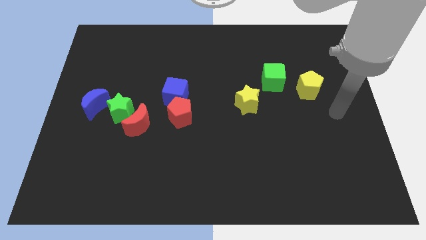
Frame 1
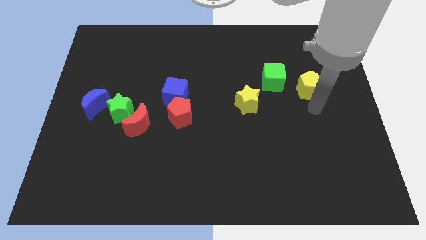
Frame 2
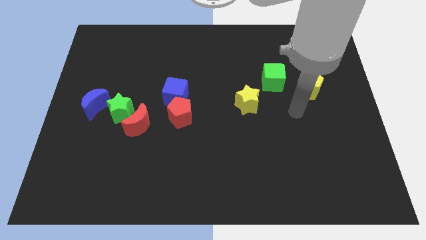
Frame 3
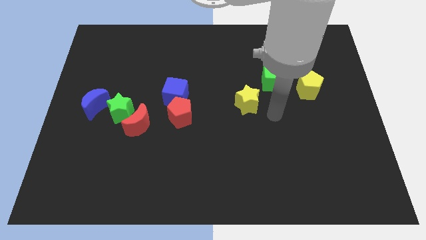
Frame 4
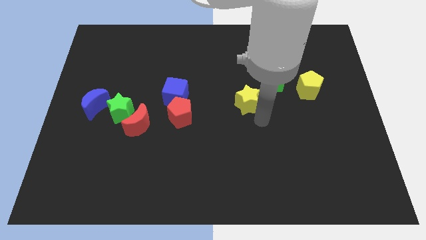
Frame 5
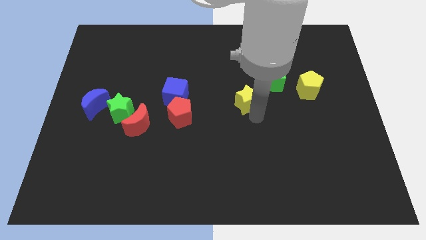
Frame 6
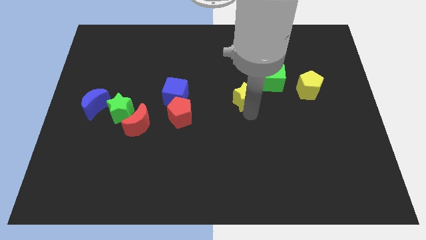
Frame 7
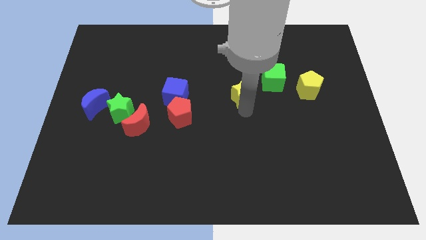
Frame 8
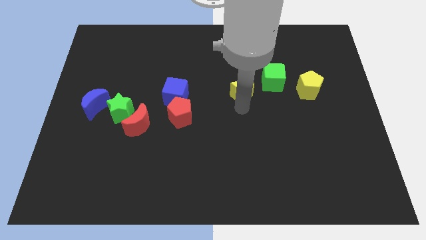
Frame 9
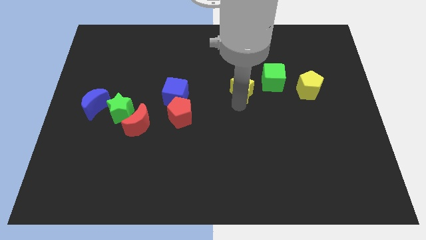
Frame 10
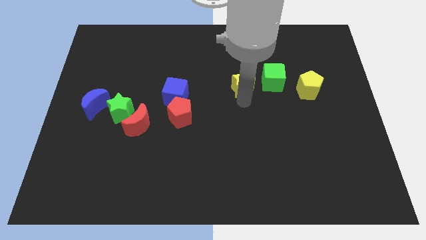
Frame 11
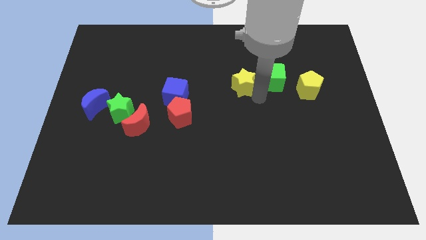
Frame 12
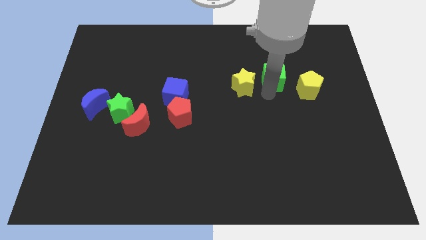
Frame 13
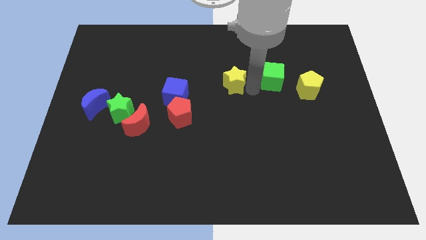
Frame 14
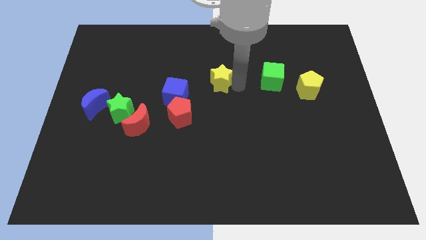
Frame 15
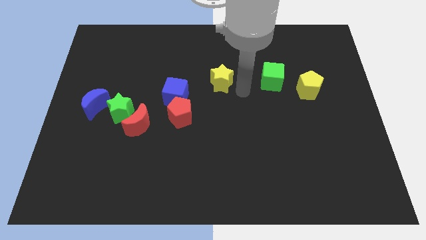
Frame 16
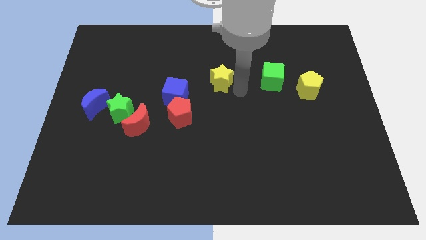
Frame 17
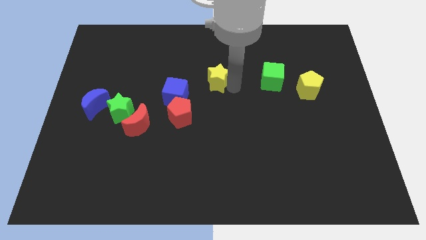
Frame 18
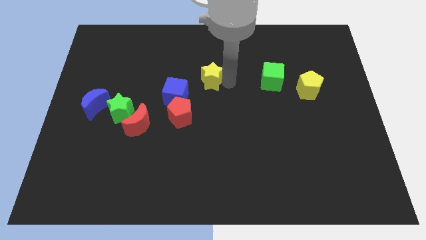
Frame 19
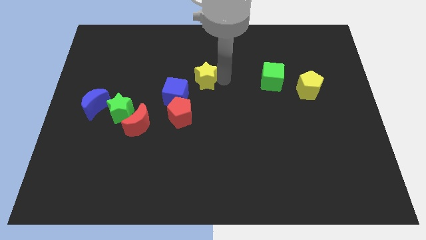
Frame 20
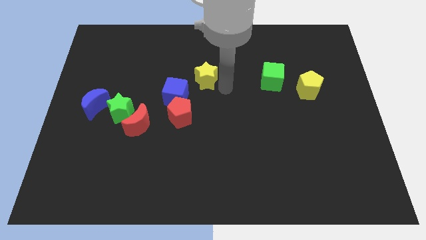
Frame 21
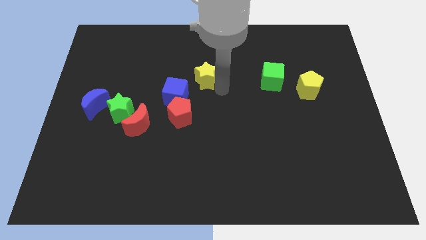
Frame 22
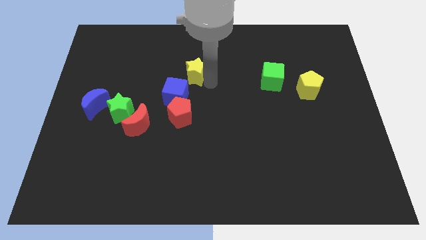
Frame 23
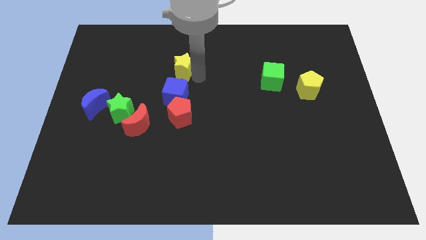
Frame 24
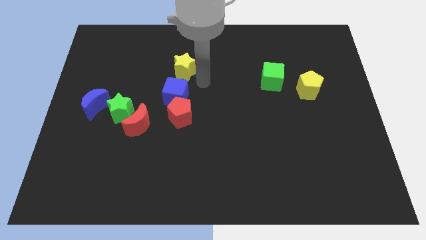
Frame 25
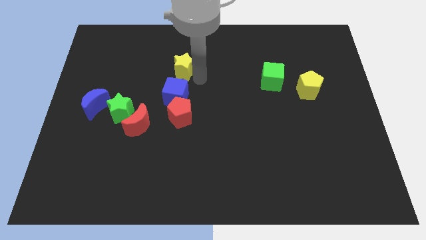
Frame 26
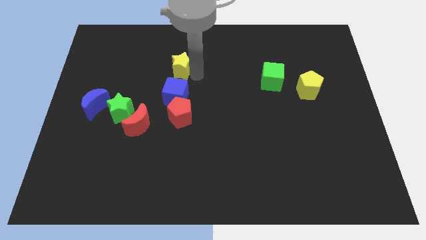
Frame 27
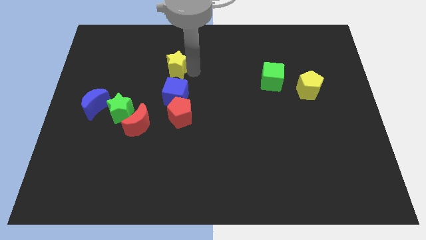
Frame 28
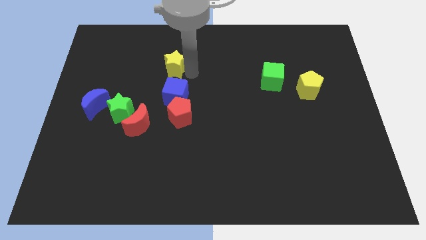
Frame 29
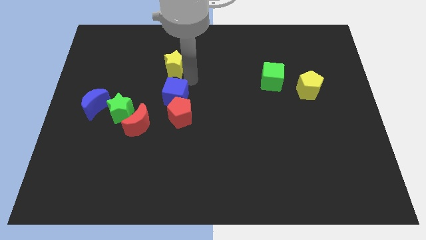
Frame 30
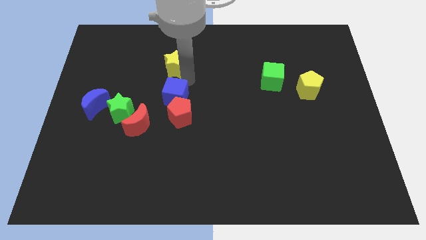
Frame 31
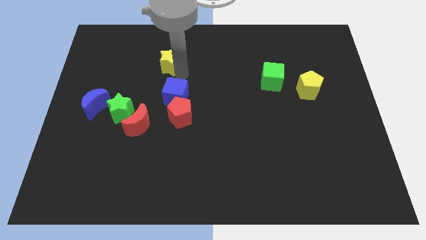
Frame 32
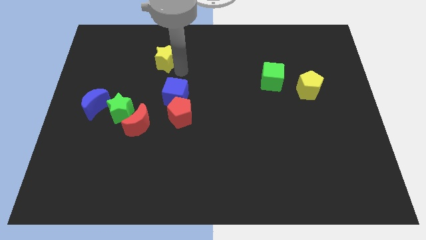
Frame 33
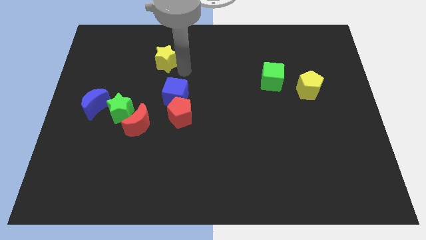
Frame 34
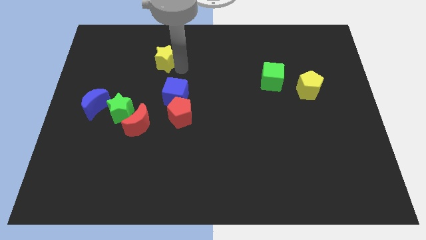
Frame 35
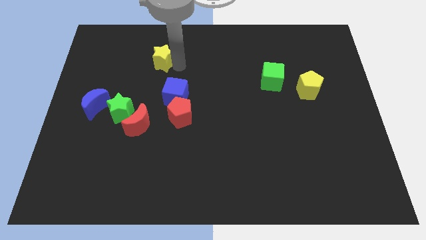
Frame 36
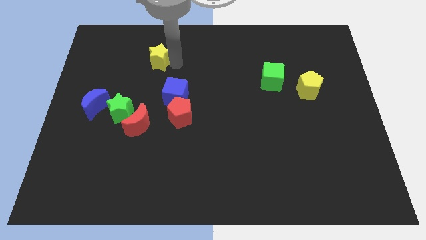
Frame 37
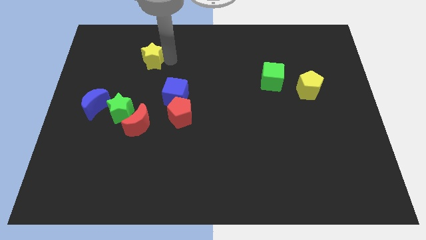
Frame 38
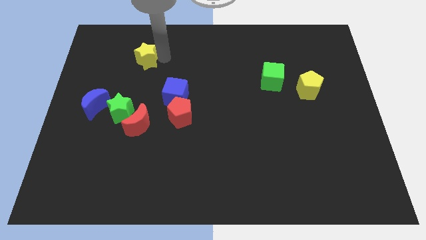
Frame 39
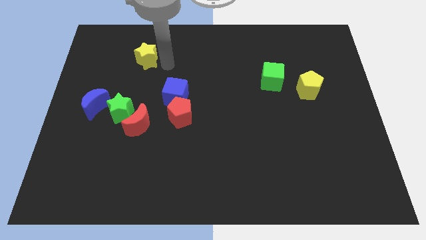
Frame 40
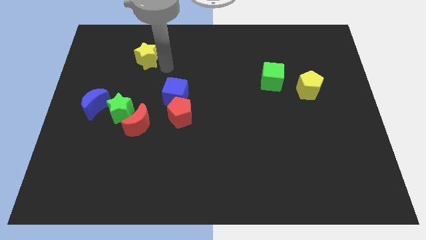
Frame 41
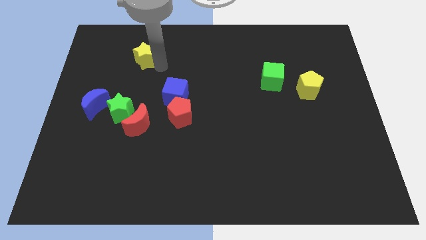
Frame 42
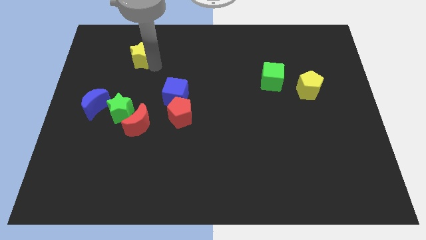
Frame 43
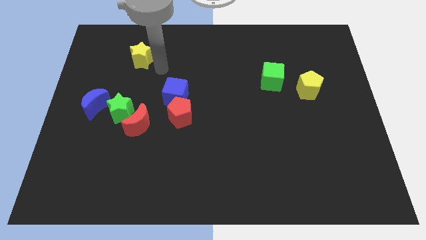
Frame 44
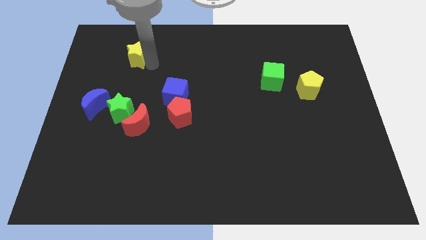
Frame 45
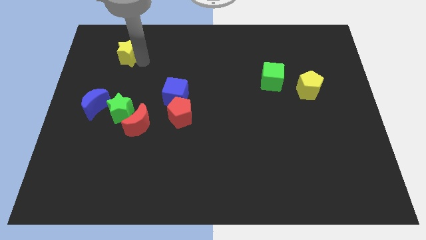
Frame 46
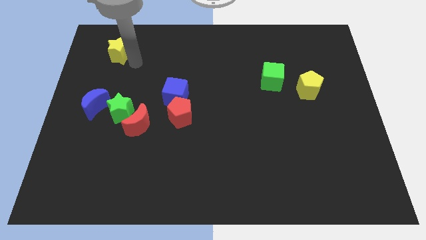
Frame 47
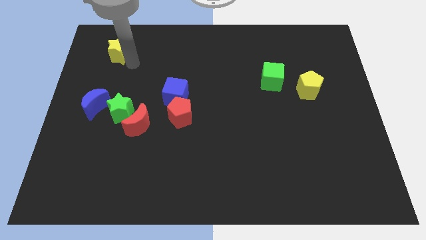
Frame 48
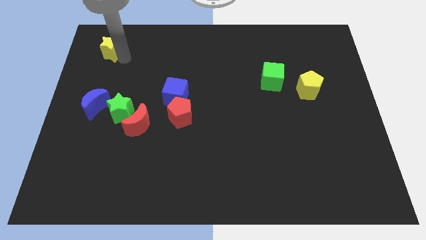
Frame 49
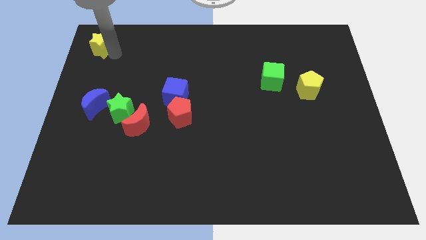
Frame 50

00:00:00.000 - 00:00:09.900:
put the yellow star to the top left

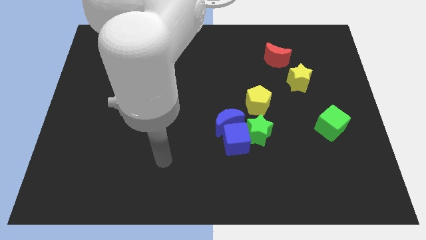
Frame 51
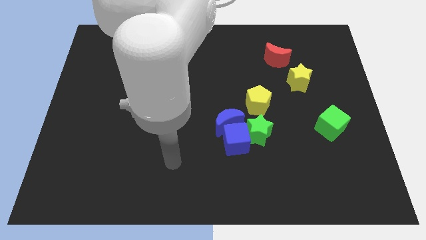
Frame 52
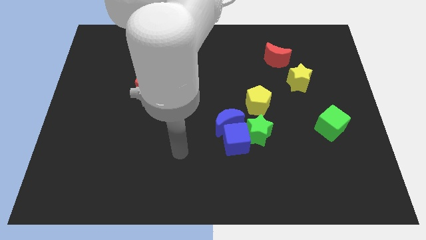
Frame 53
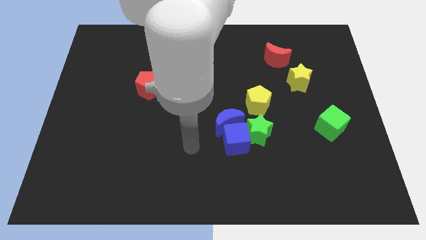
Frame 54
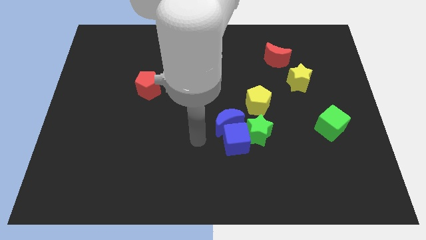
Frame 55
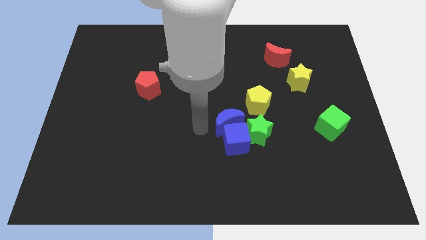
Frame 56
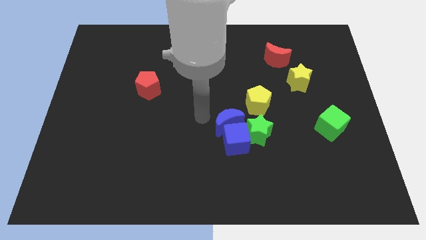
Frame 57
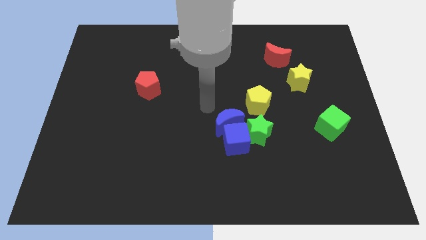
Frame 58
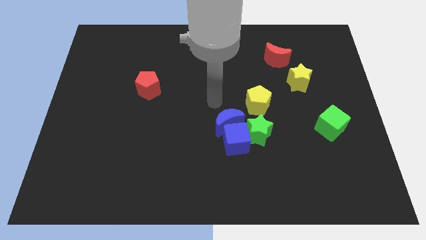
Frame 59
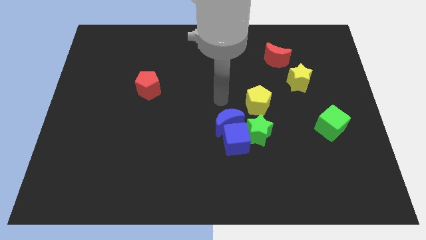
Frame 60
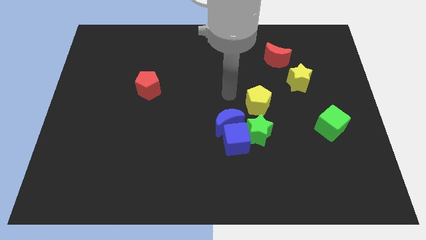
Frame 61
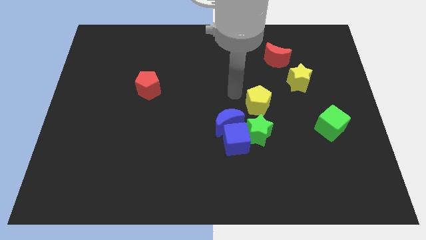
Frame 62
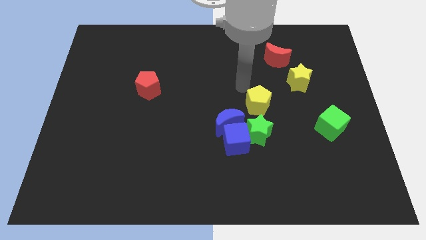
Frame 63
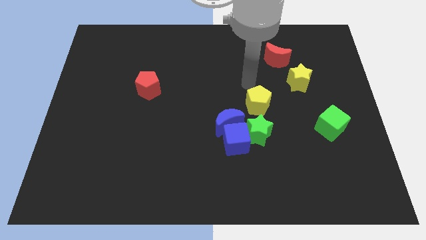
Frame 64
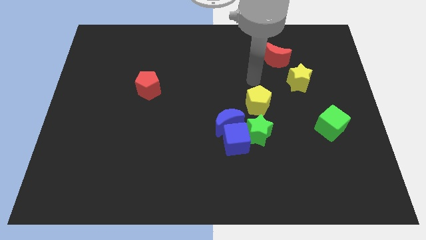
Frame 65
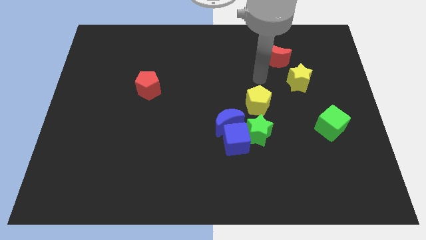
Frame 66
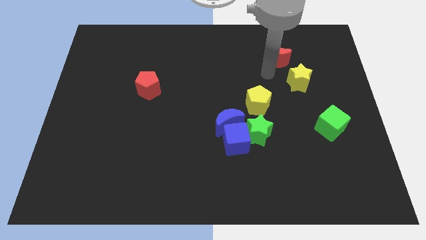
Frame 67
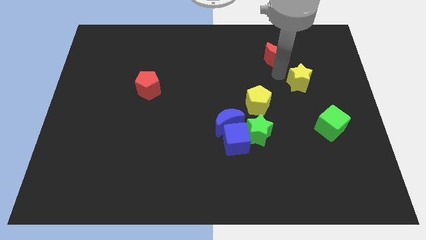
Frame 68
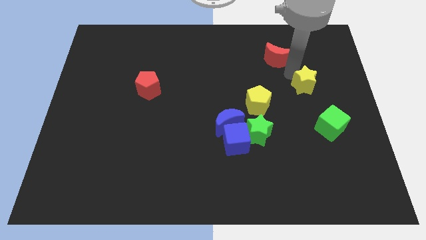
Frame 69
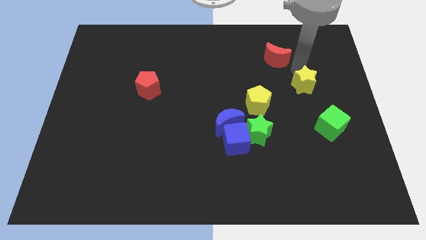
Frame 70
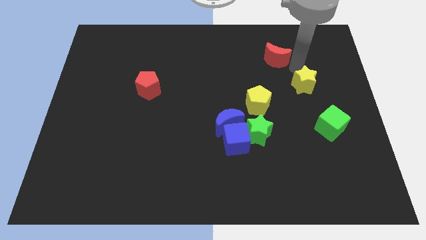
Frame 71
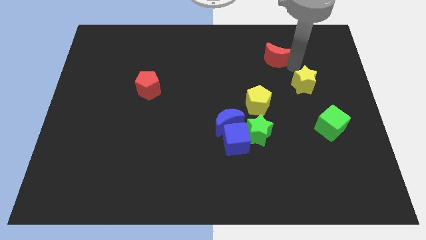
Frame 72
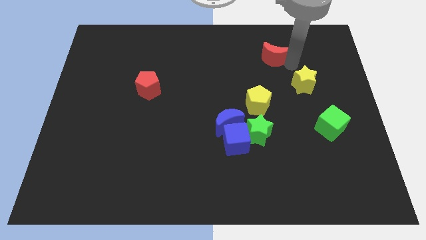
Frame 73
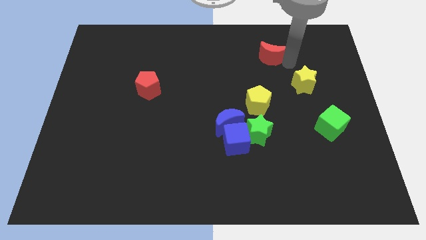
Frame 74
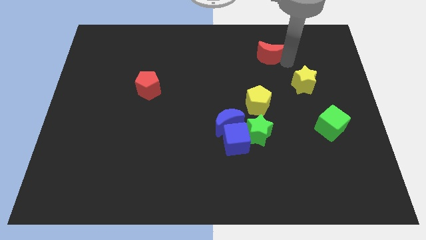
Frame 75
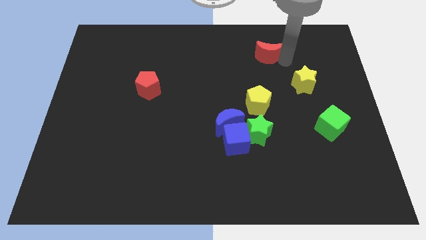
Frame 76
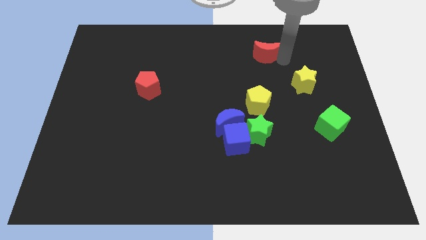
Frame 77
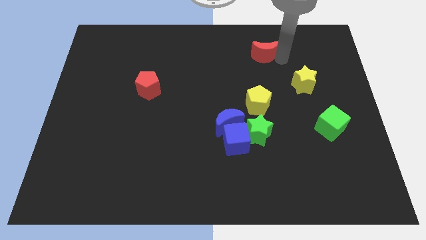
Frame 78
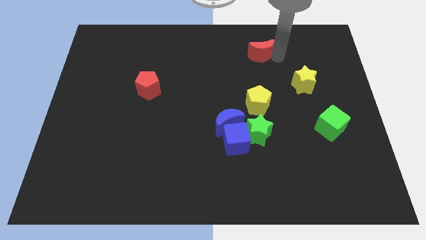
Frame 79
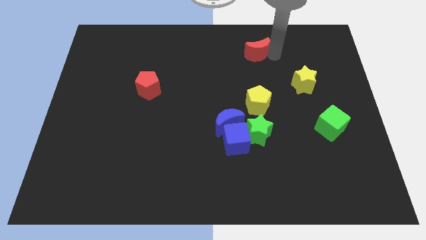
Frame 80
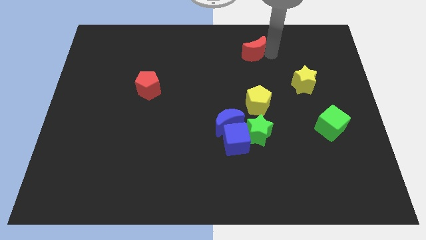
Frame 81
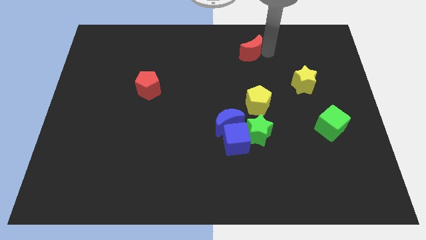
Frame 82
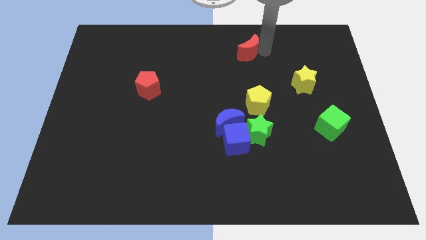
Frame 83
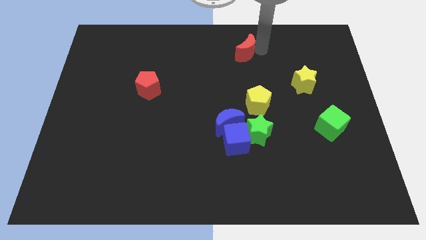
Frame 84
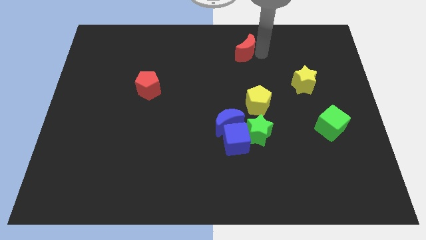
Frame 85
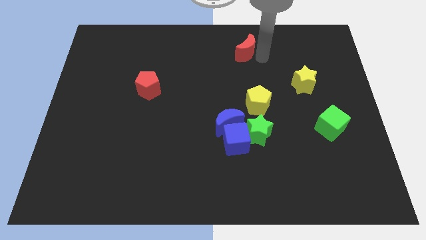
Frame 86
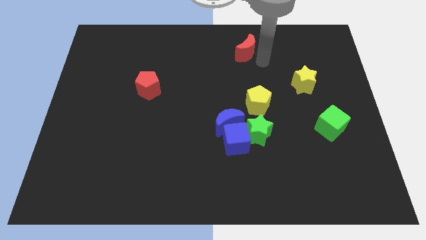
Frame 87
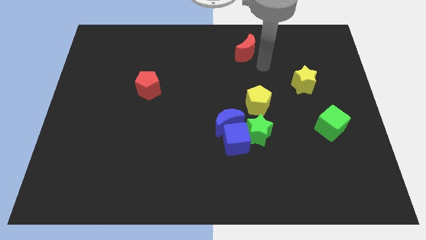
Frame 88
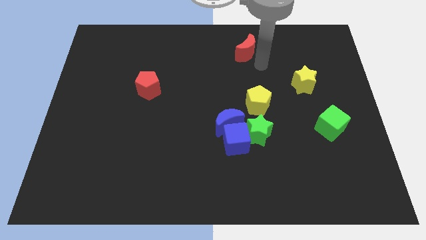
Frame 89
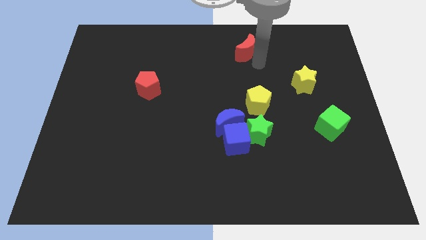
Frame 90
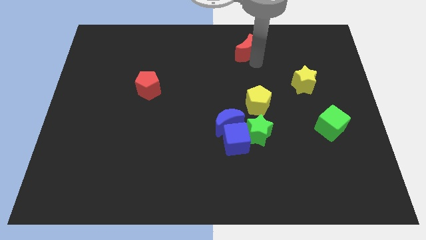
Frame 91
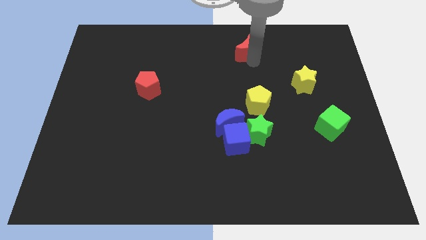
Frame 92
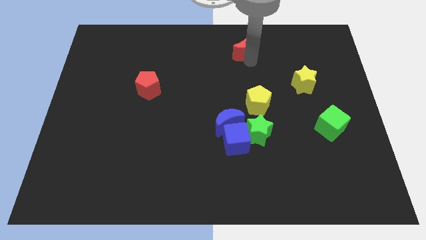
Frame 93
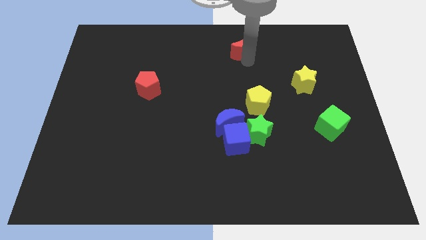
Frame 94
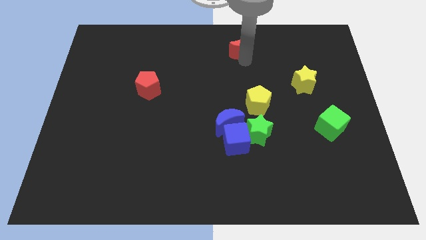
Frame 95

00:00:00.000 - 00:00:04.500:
put the red moon to the top side
